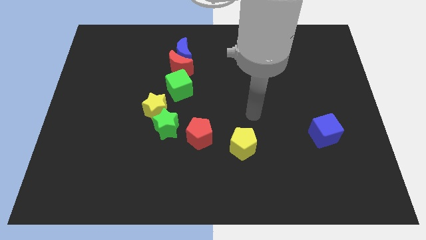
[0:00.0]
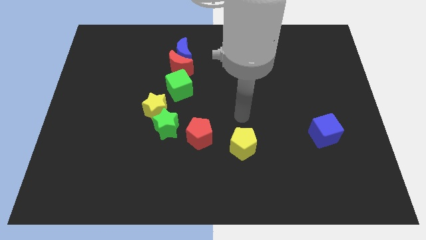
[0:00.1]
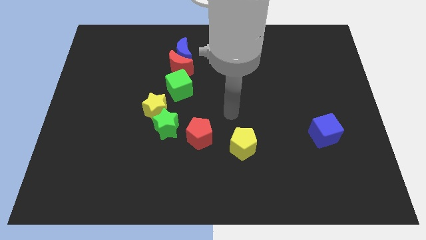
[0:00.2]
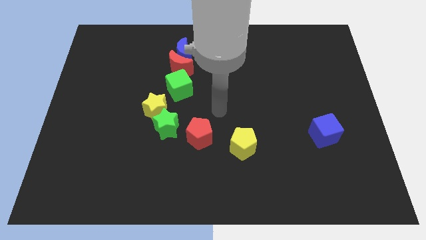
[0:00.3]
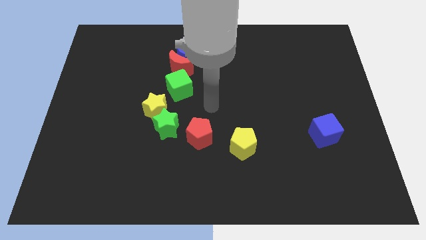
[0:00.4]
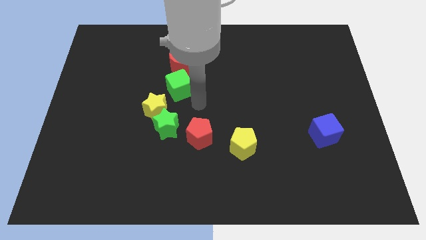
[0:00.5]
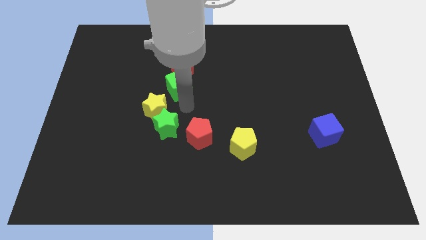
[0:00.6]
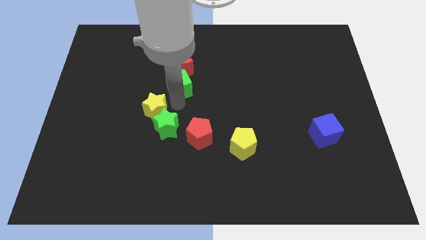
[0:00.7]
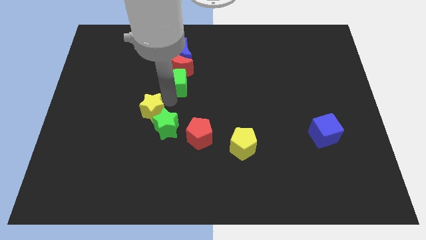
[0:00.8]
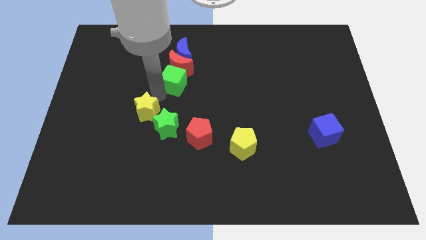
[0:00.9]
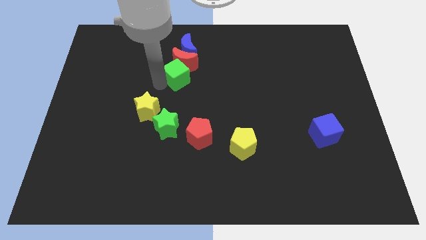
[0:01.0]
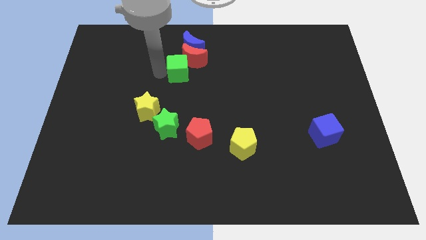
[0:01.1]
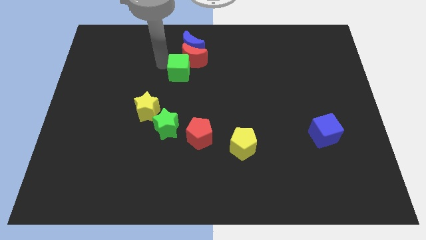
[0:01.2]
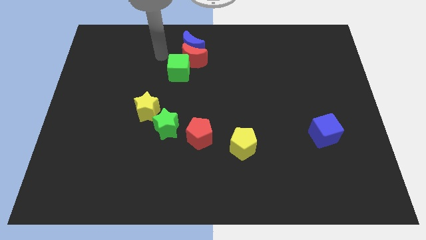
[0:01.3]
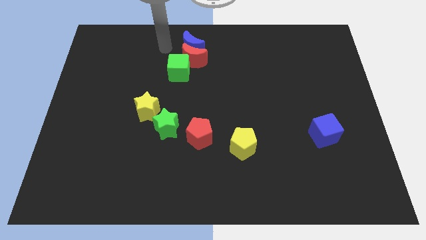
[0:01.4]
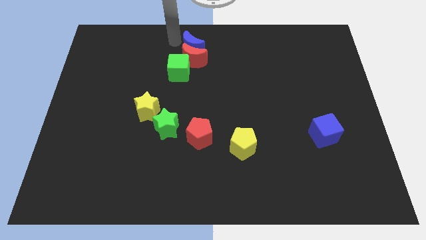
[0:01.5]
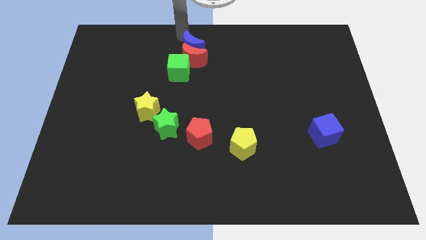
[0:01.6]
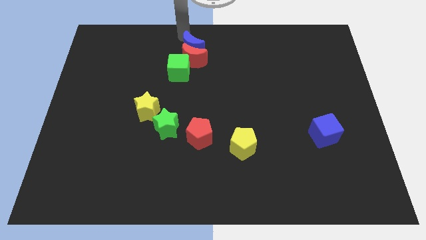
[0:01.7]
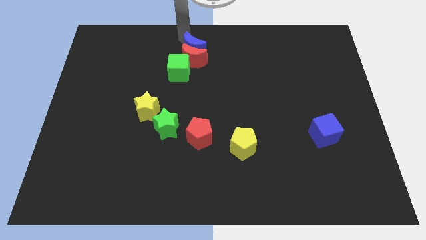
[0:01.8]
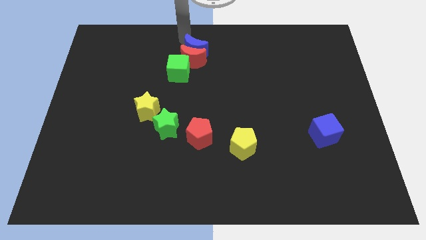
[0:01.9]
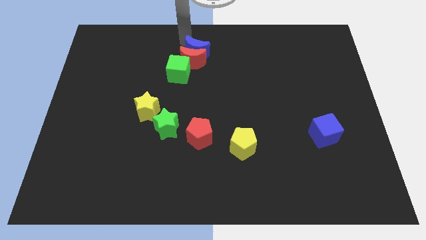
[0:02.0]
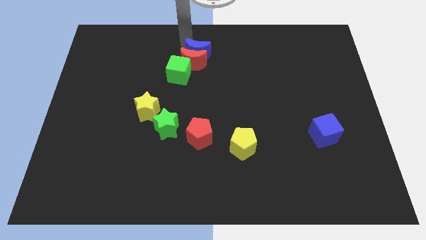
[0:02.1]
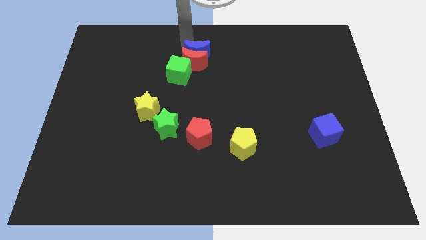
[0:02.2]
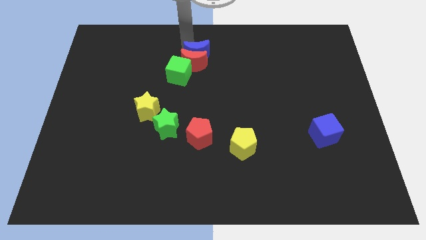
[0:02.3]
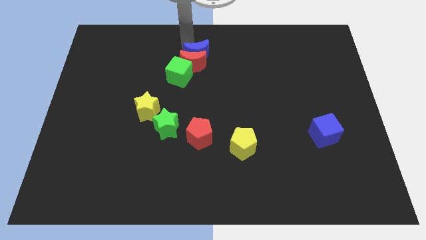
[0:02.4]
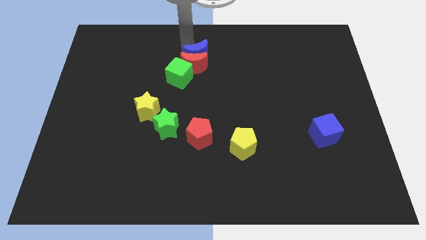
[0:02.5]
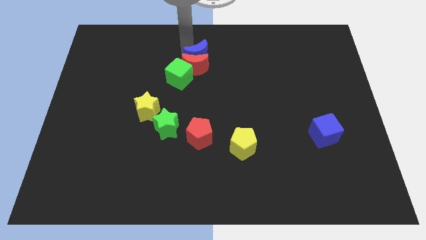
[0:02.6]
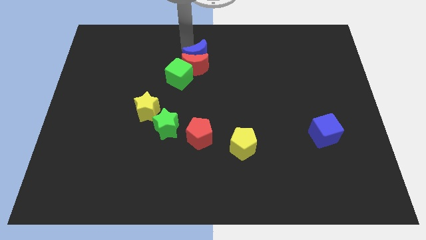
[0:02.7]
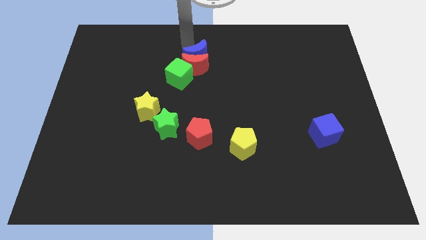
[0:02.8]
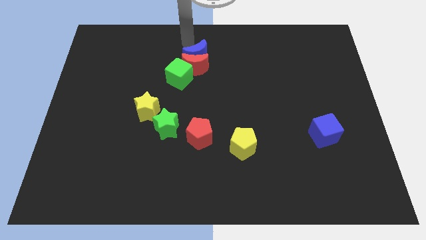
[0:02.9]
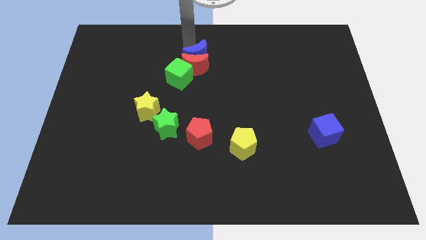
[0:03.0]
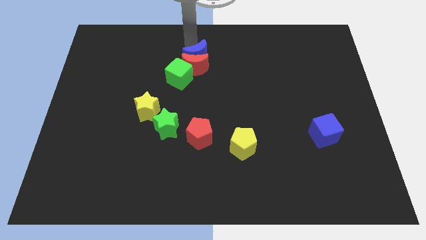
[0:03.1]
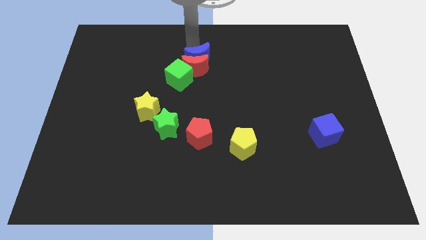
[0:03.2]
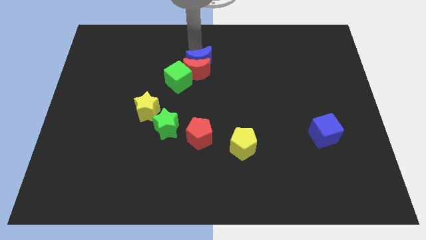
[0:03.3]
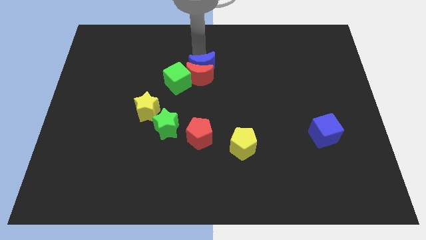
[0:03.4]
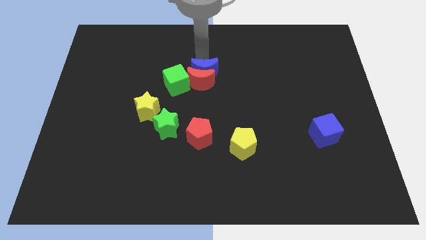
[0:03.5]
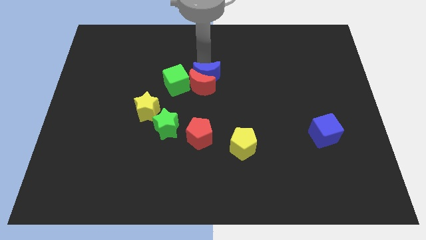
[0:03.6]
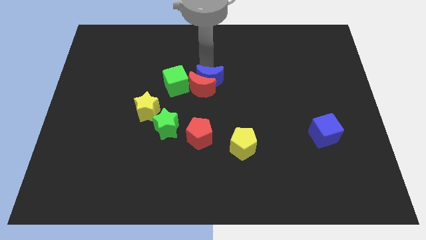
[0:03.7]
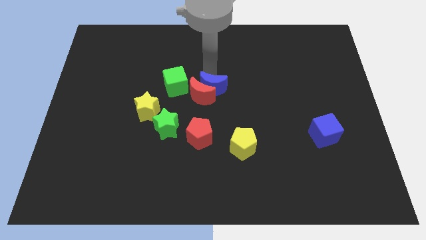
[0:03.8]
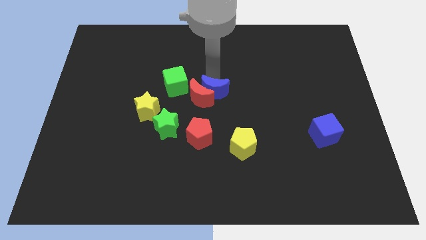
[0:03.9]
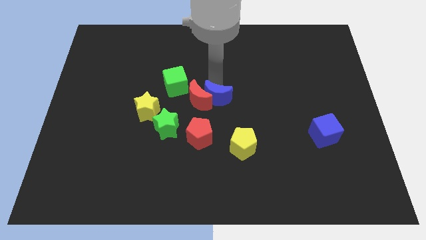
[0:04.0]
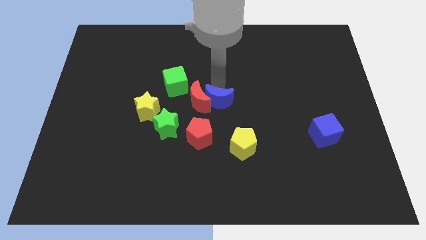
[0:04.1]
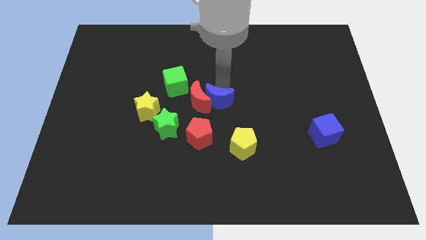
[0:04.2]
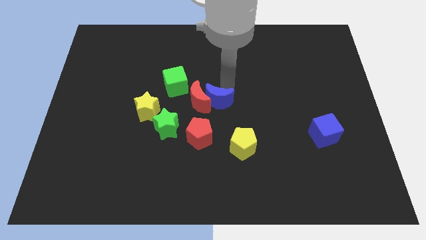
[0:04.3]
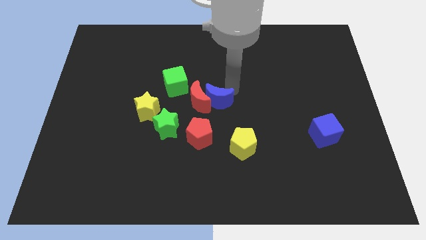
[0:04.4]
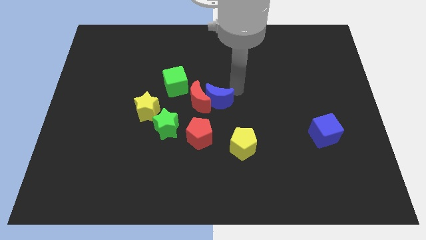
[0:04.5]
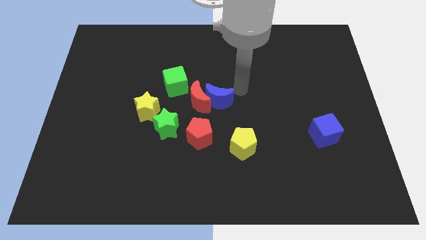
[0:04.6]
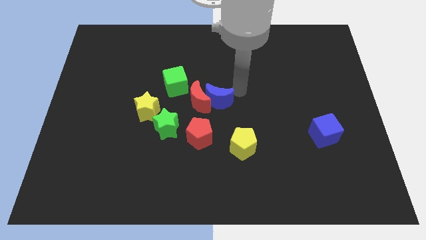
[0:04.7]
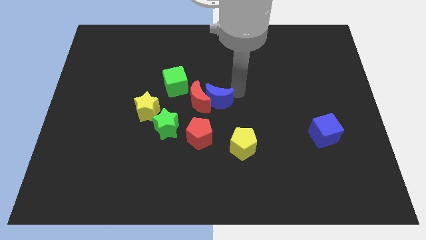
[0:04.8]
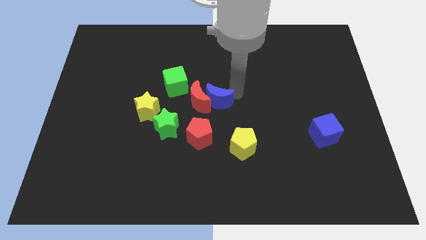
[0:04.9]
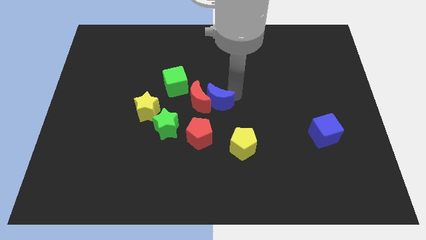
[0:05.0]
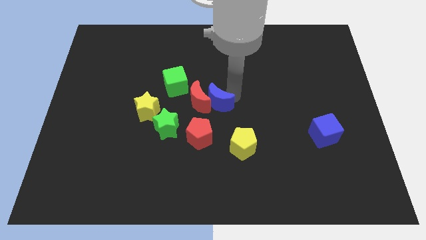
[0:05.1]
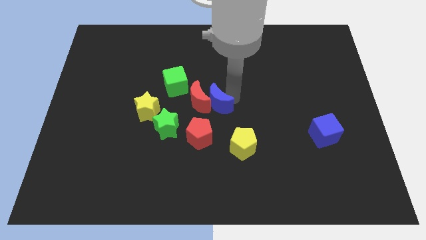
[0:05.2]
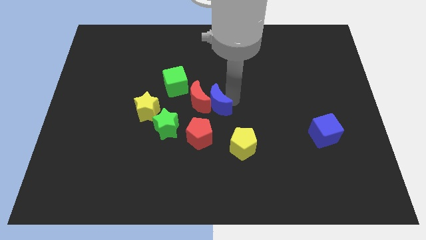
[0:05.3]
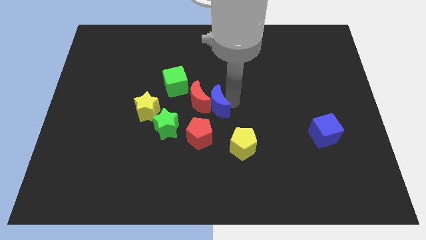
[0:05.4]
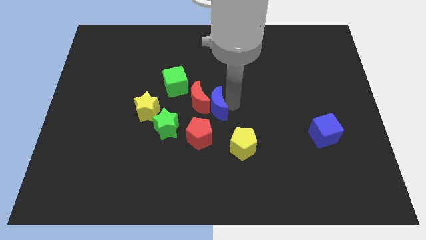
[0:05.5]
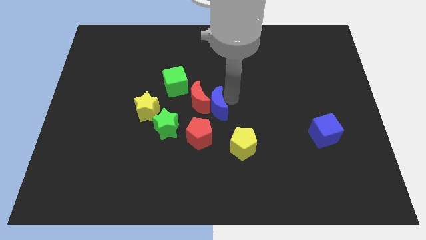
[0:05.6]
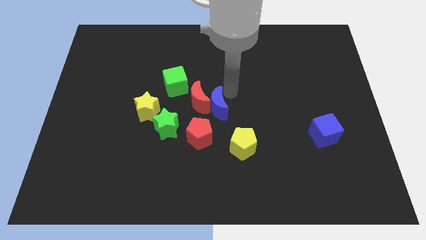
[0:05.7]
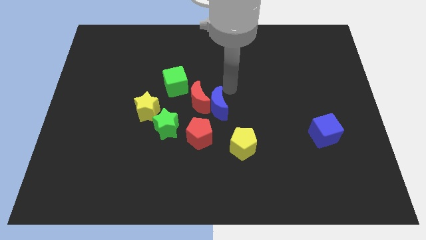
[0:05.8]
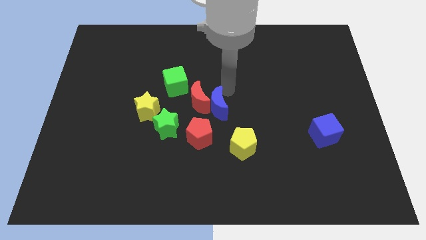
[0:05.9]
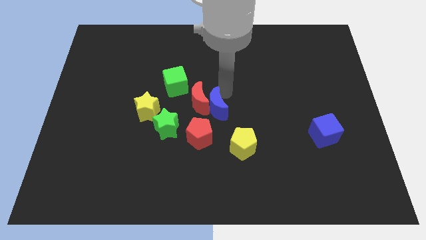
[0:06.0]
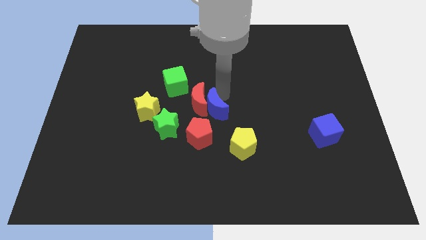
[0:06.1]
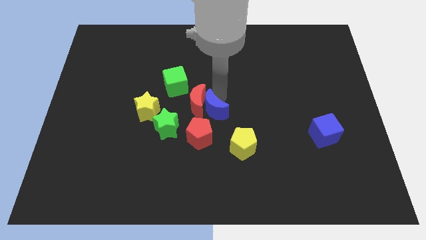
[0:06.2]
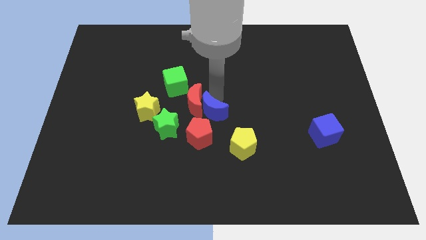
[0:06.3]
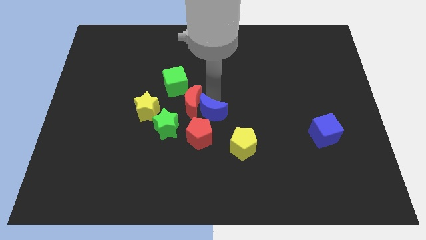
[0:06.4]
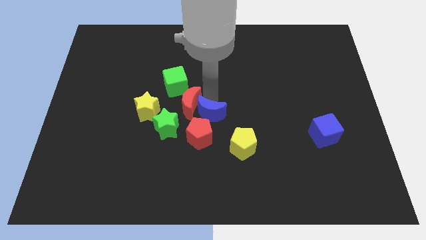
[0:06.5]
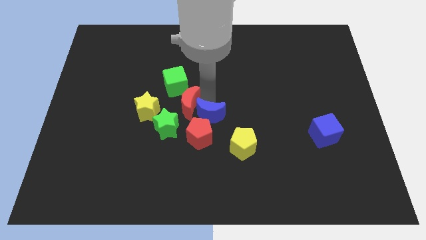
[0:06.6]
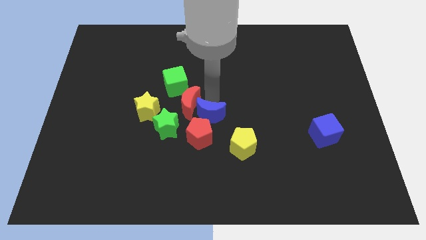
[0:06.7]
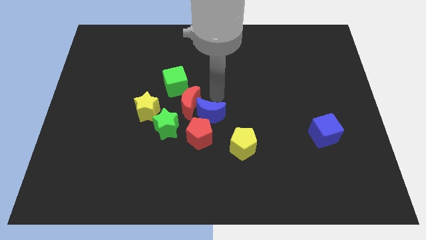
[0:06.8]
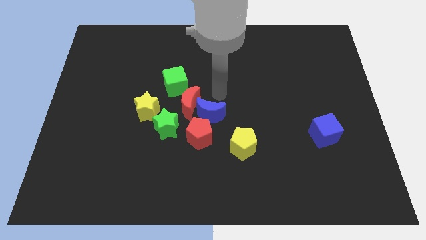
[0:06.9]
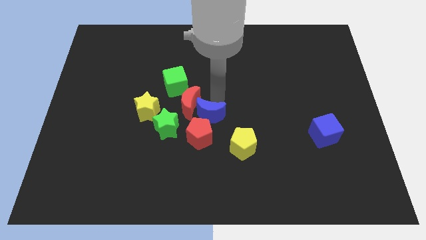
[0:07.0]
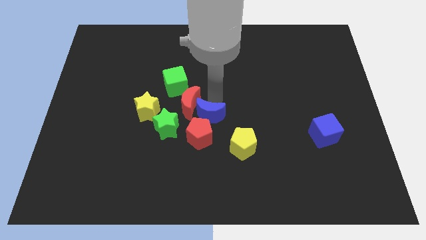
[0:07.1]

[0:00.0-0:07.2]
move the blue moon to the red pentagon
